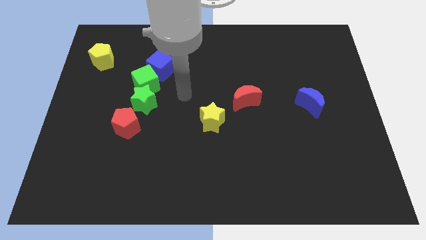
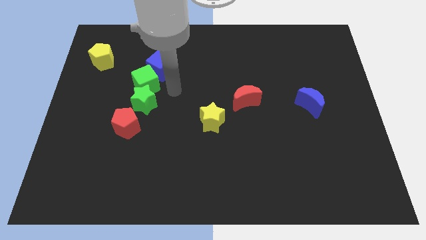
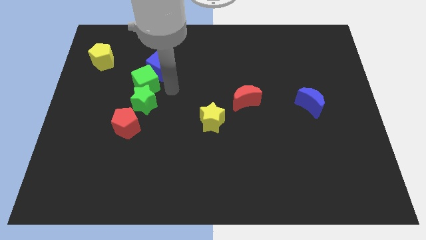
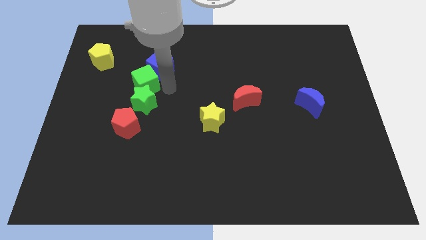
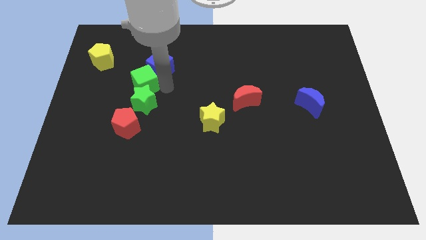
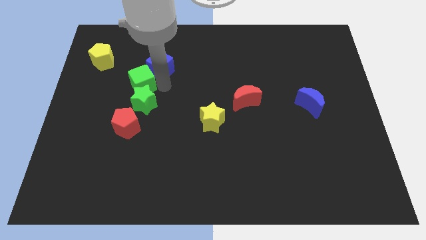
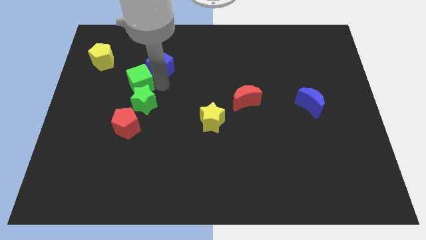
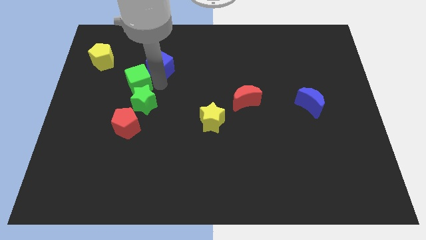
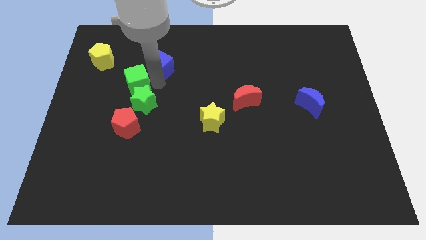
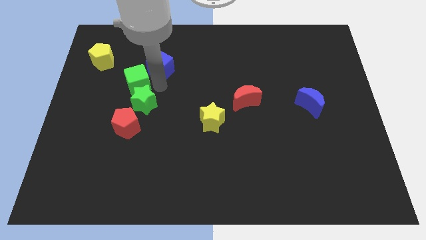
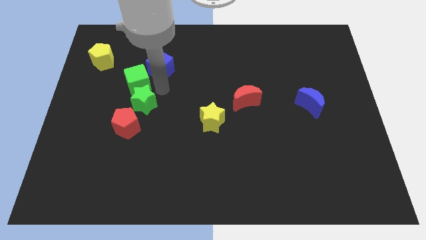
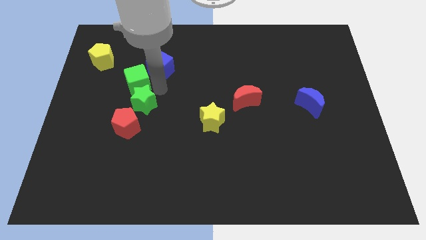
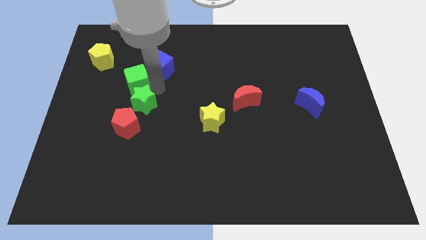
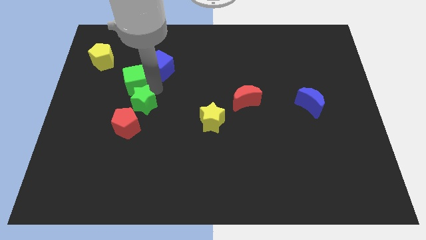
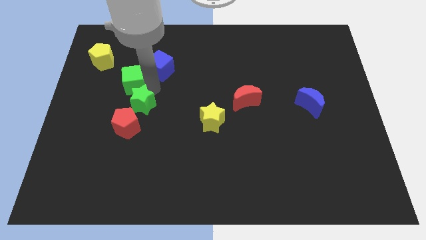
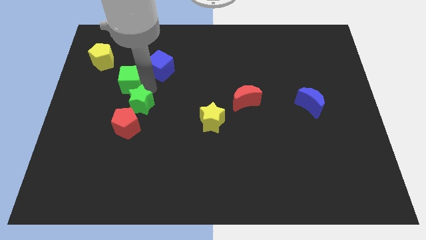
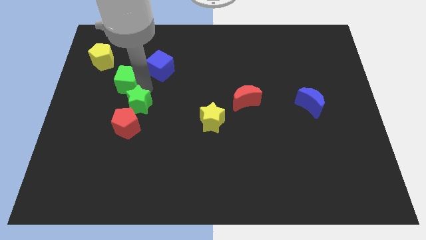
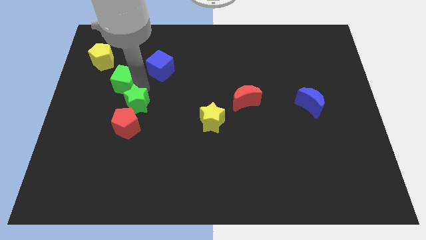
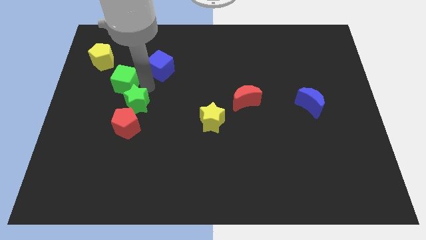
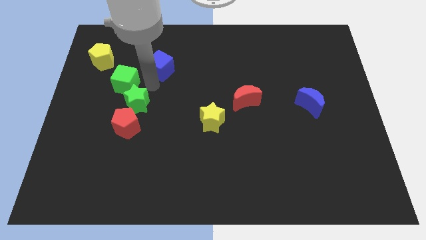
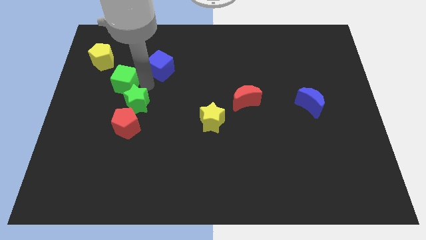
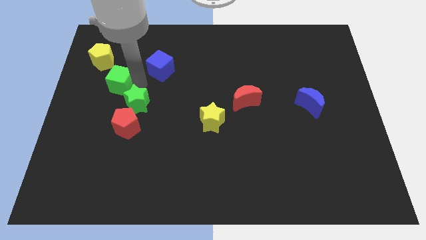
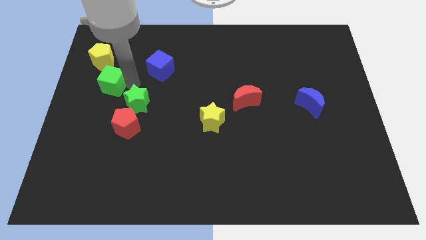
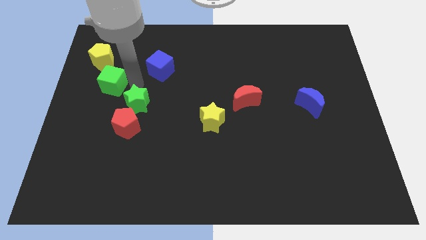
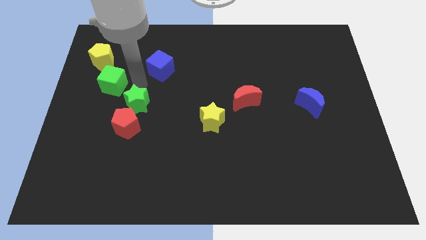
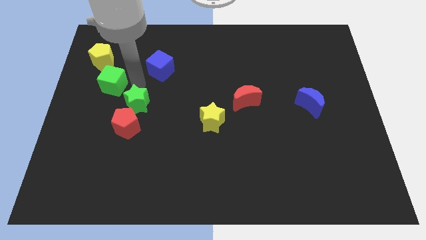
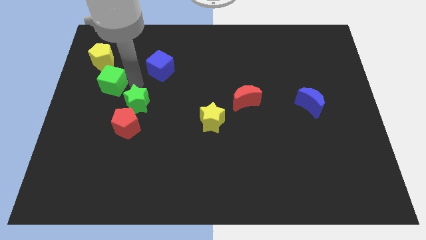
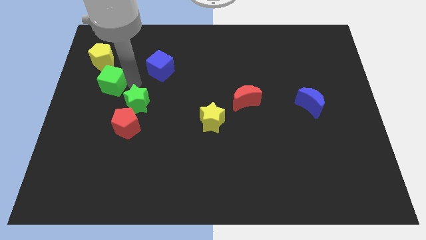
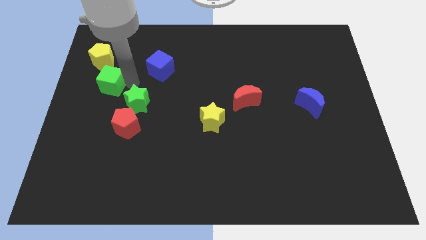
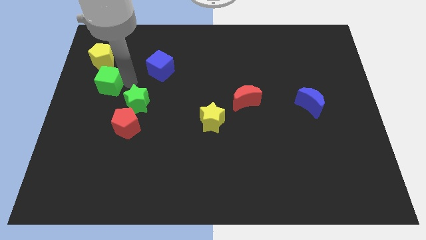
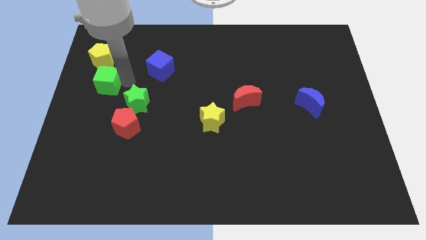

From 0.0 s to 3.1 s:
pull the green cube apart from the green star and blue cube

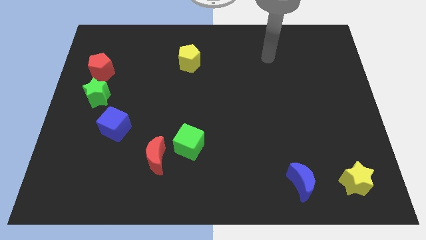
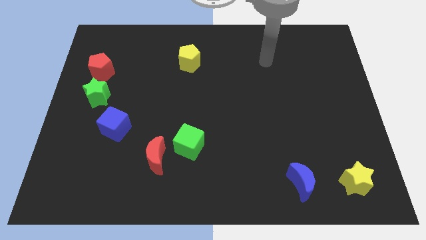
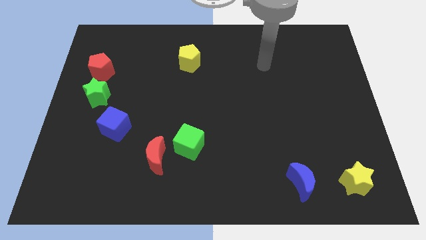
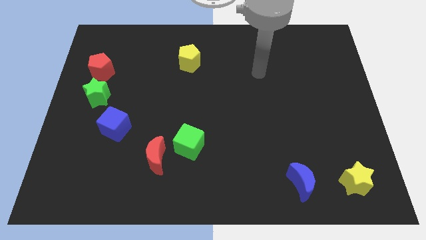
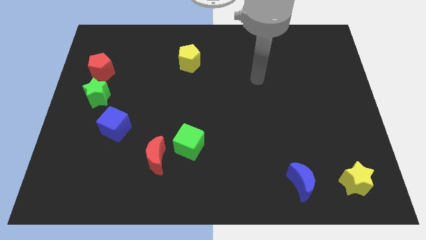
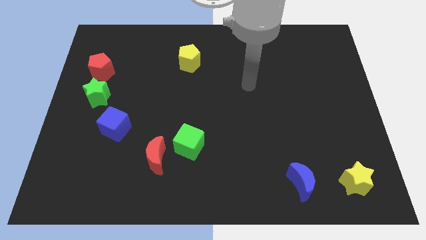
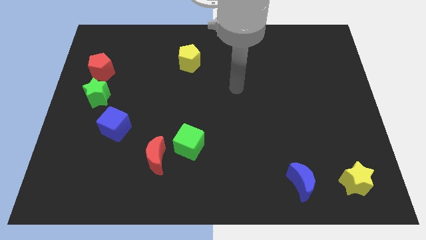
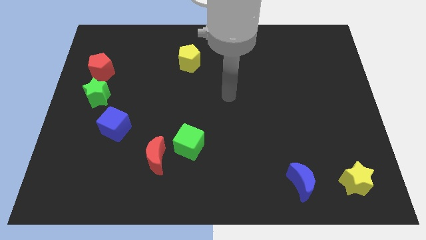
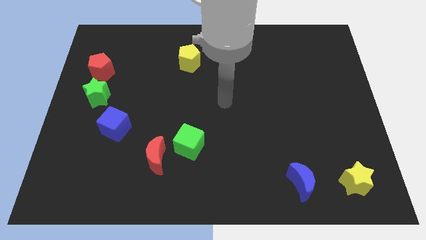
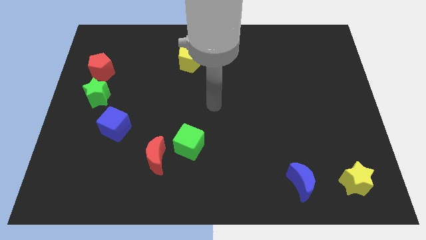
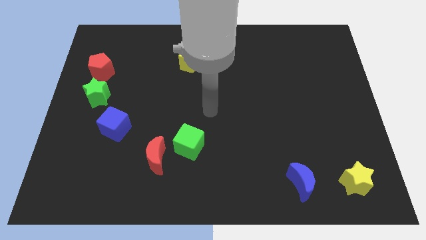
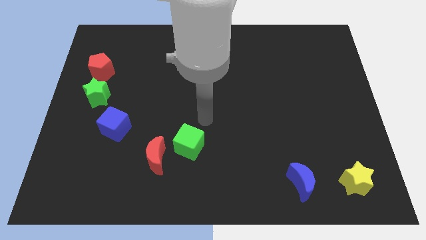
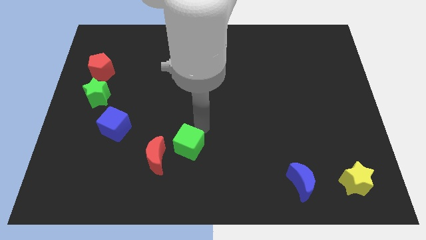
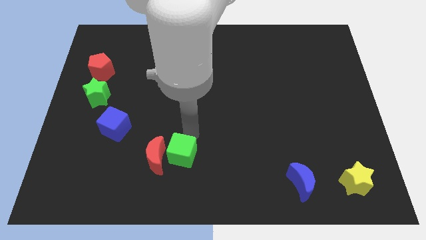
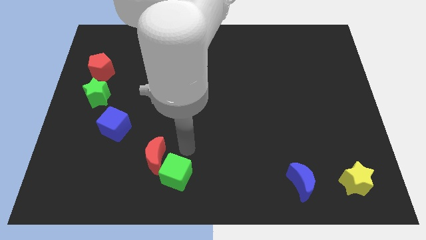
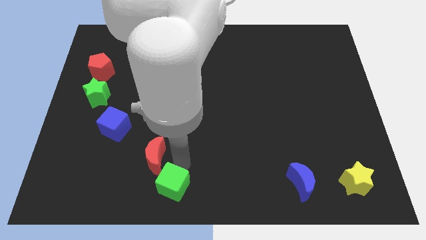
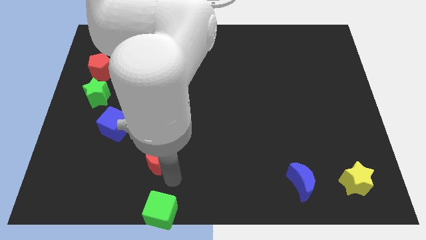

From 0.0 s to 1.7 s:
move the red moon away from the green cube

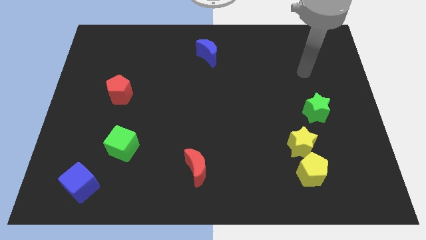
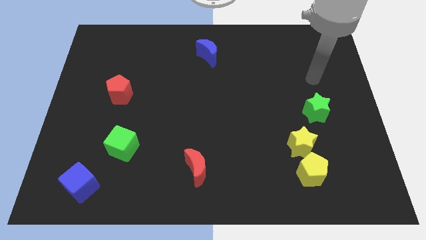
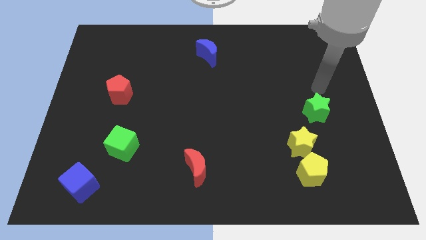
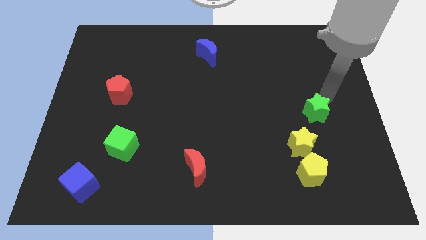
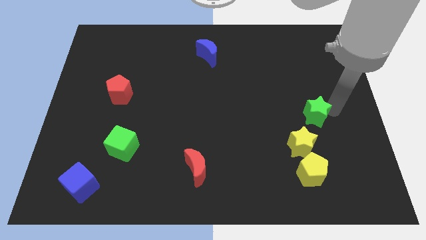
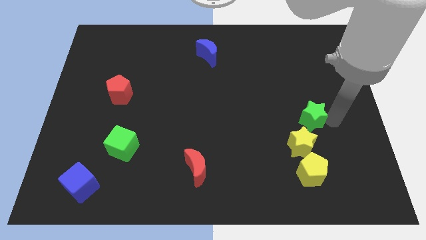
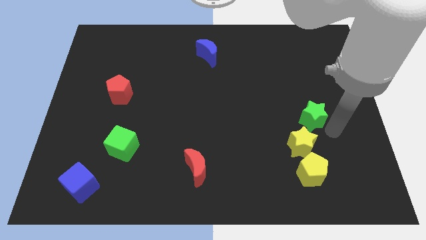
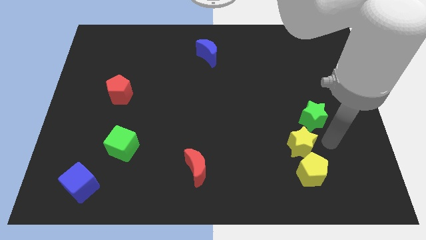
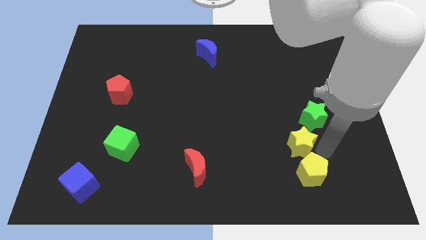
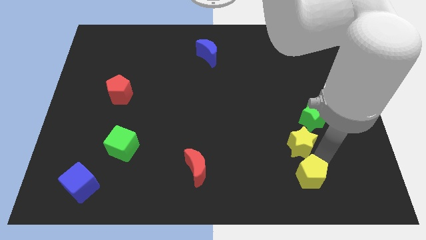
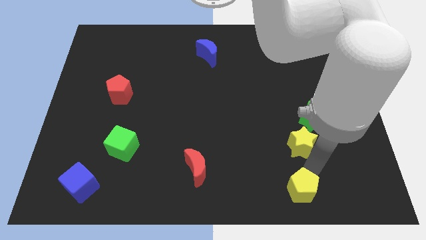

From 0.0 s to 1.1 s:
move the yellow star away from the yellow pentagon

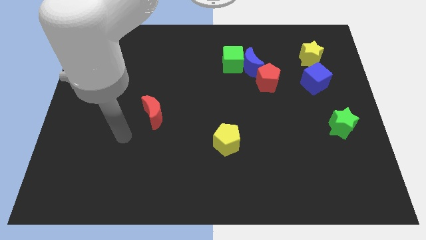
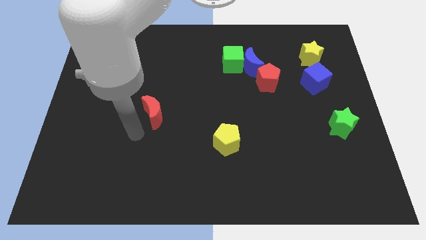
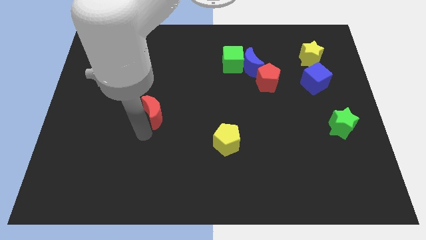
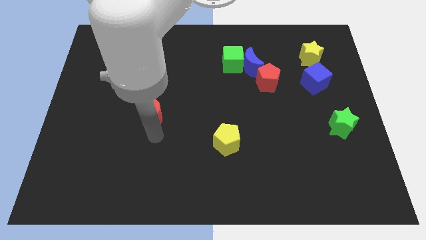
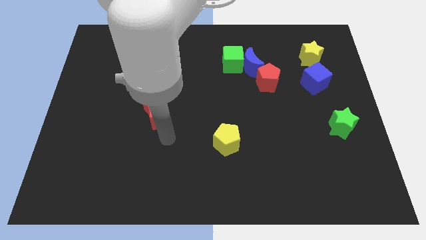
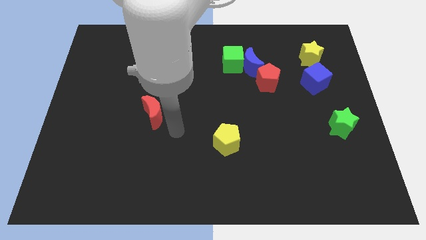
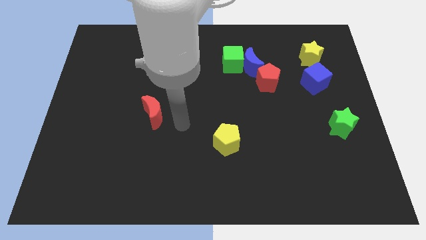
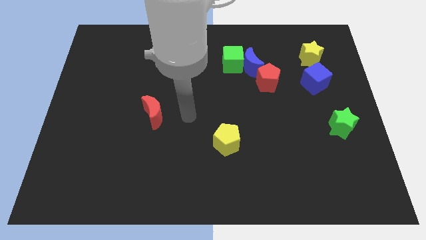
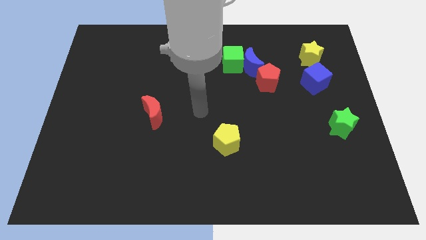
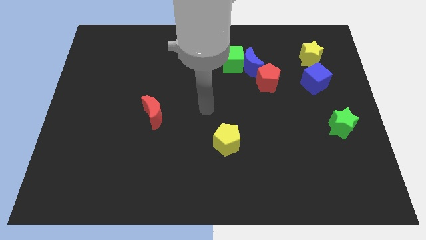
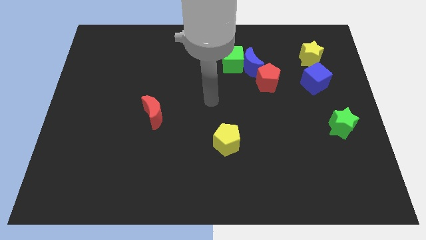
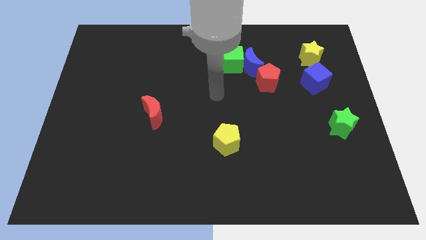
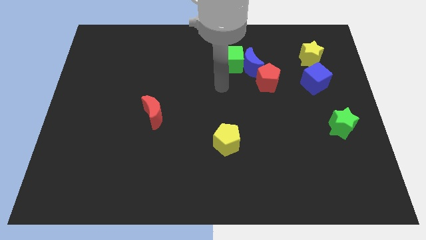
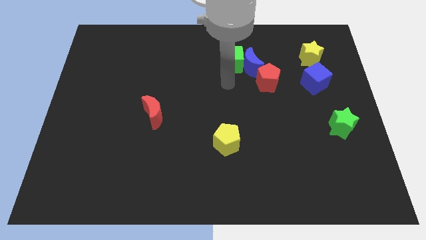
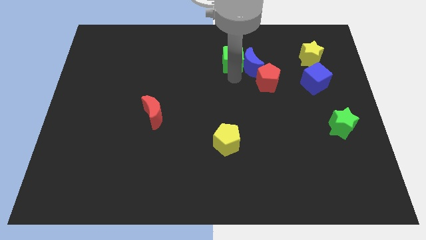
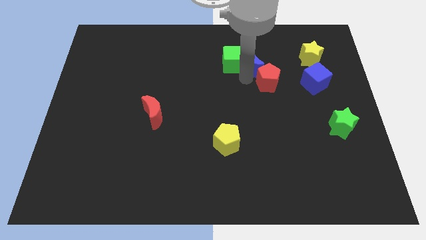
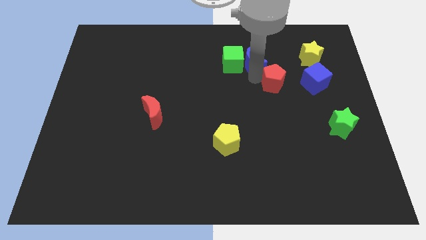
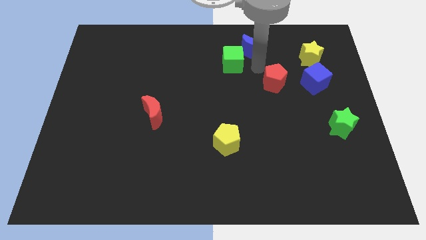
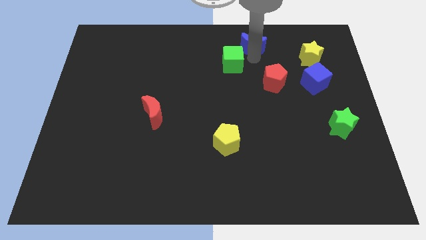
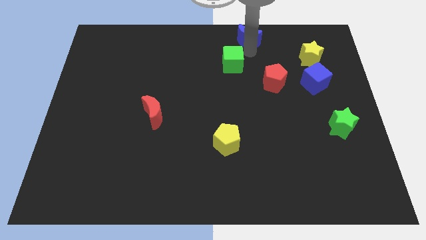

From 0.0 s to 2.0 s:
separate the green cube from the blue moon

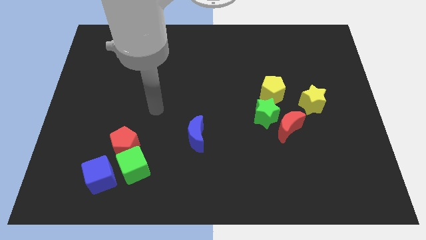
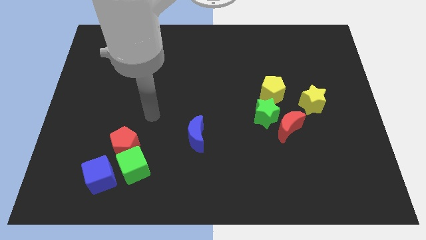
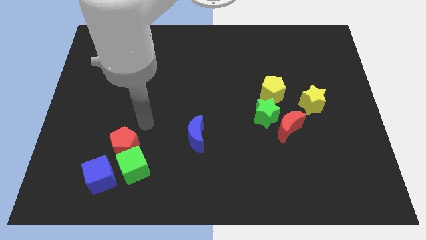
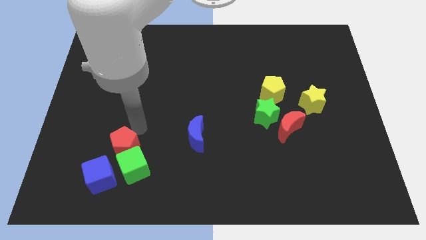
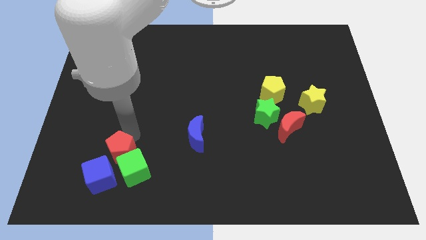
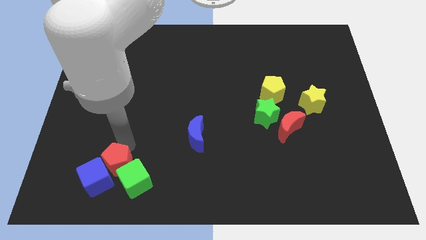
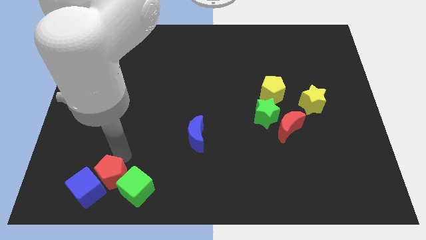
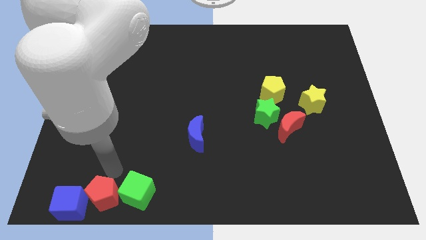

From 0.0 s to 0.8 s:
pull the green cube apart from the red pentagon and blue cube

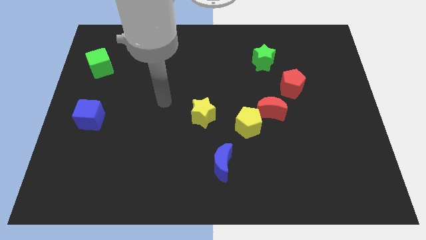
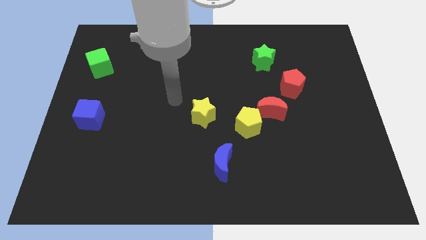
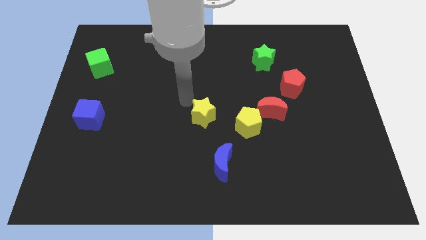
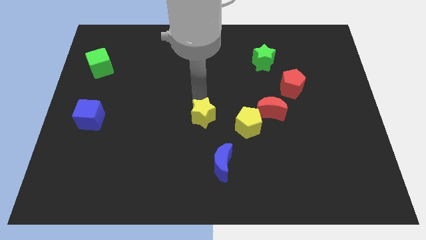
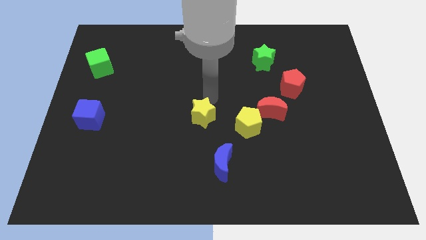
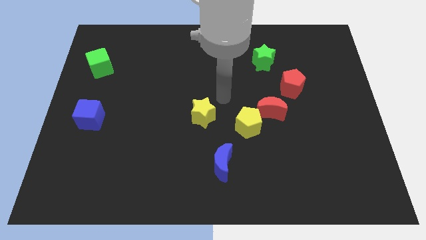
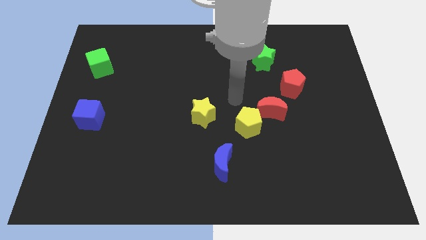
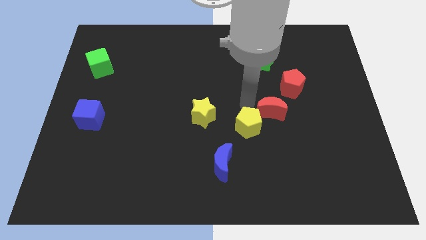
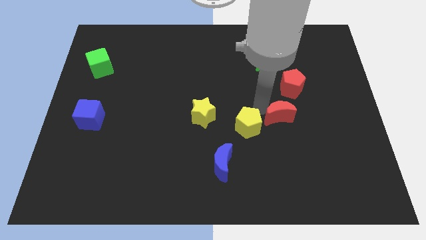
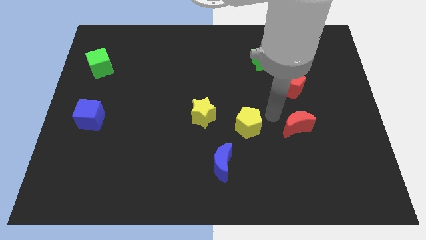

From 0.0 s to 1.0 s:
move the yellow pentagon away from the red moon
